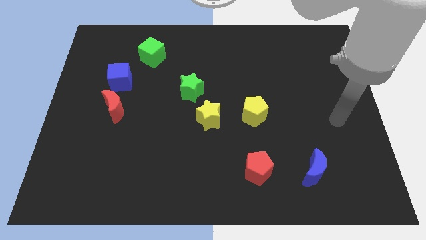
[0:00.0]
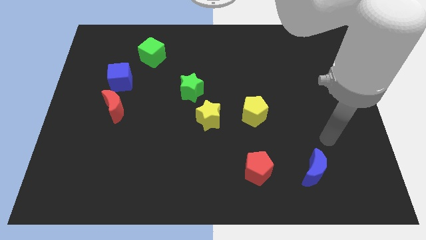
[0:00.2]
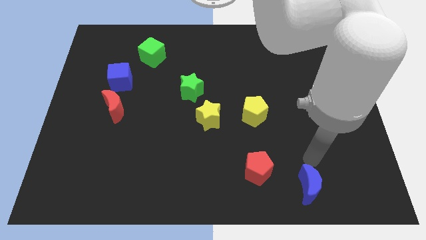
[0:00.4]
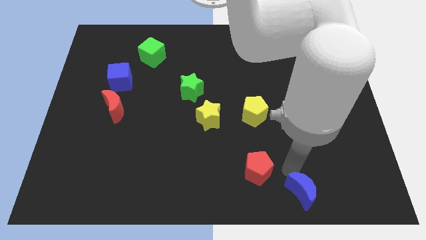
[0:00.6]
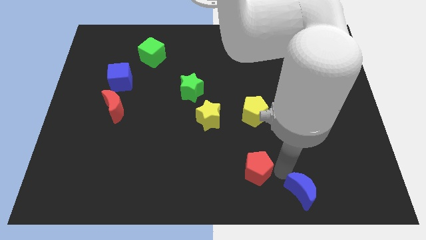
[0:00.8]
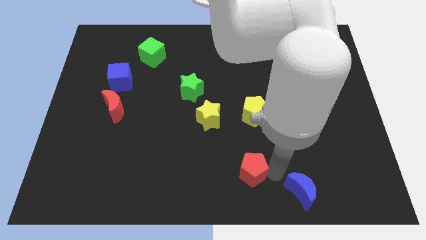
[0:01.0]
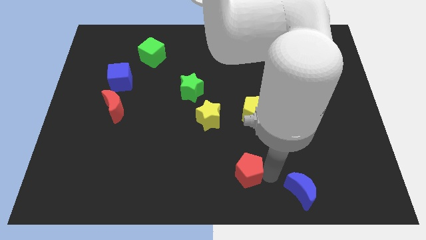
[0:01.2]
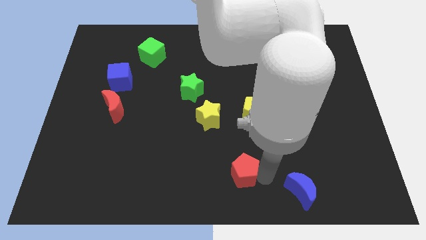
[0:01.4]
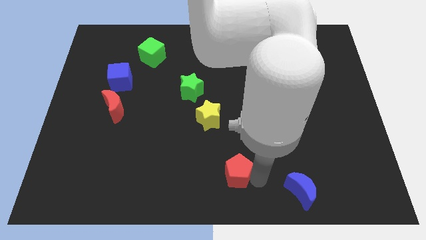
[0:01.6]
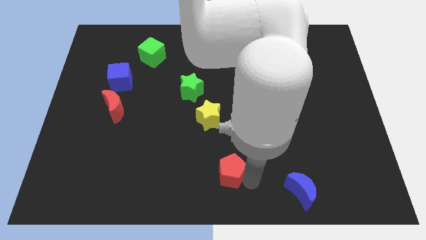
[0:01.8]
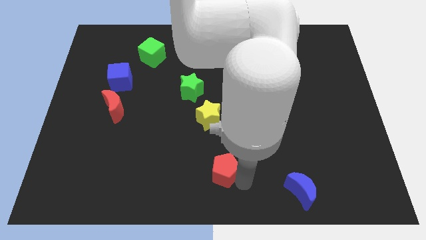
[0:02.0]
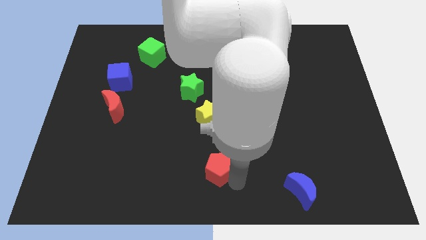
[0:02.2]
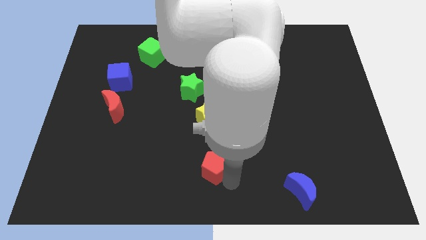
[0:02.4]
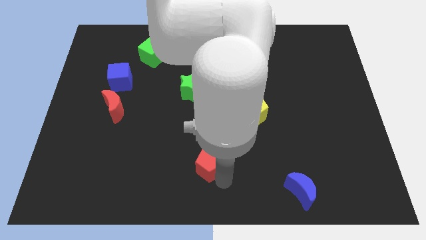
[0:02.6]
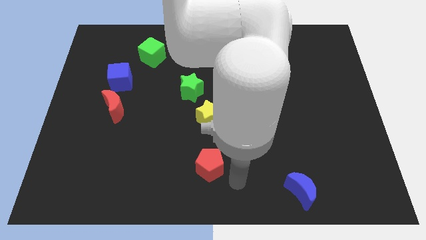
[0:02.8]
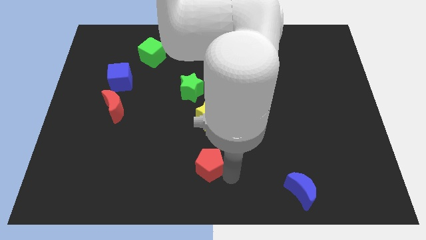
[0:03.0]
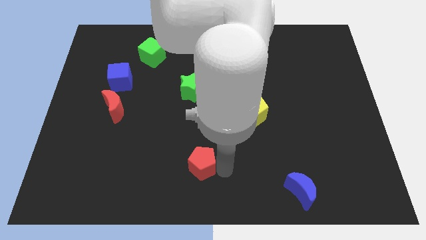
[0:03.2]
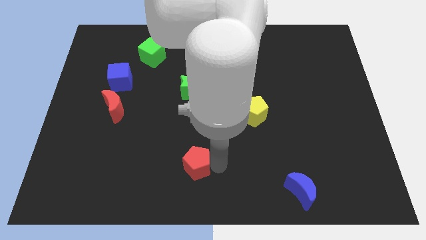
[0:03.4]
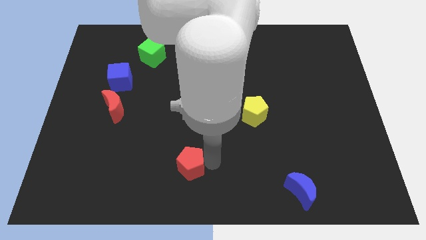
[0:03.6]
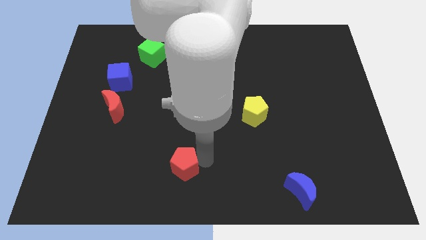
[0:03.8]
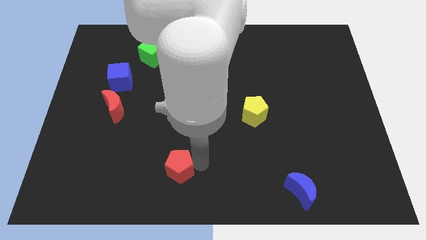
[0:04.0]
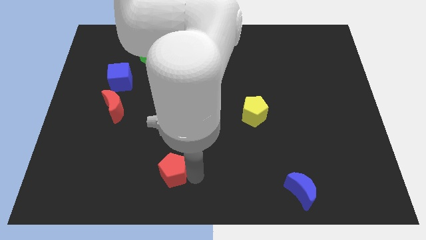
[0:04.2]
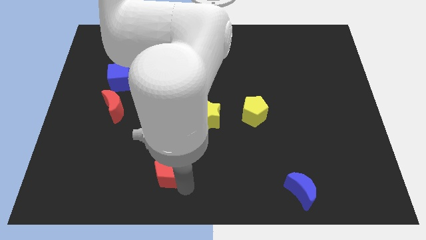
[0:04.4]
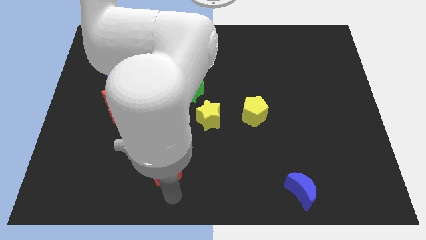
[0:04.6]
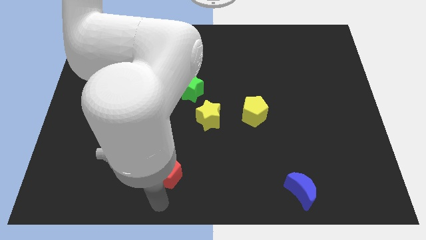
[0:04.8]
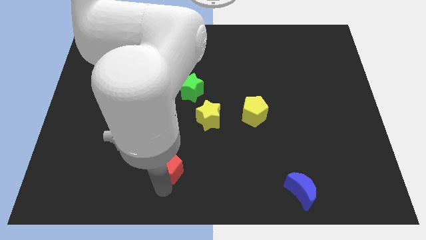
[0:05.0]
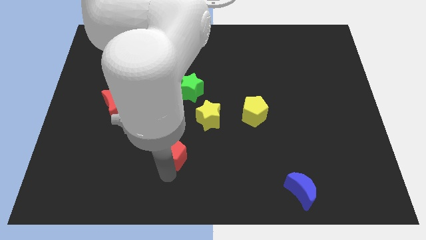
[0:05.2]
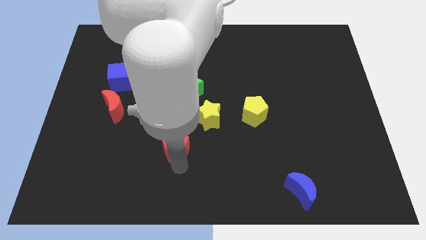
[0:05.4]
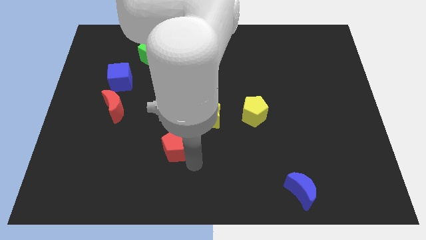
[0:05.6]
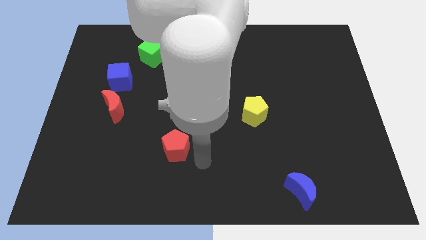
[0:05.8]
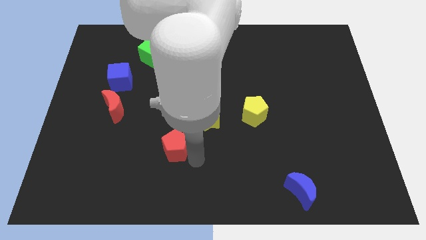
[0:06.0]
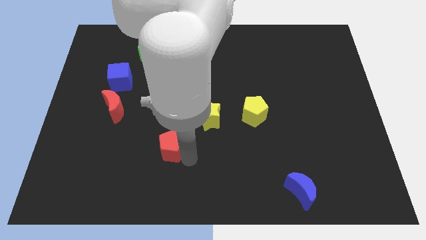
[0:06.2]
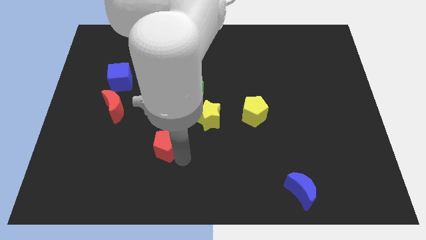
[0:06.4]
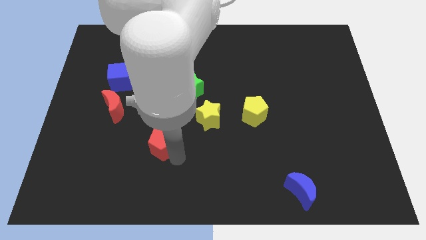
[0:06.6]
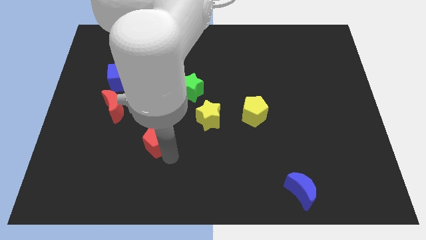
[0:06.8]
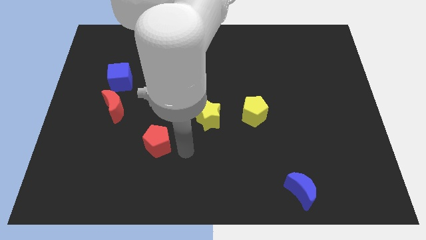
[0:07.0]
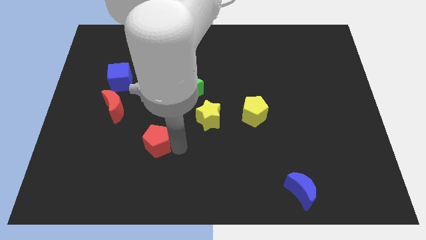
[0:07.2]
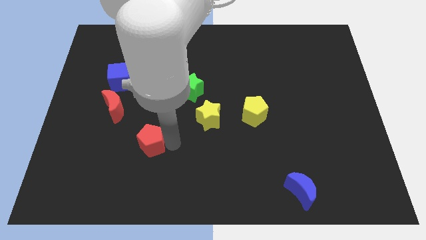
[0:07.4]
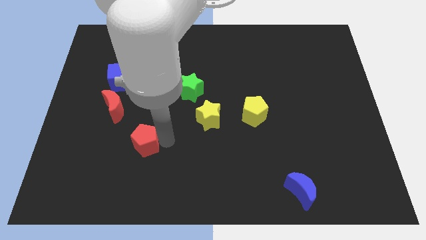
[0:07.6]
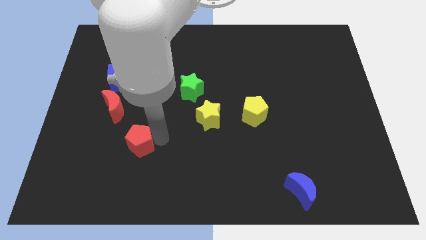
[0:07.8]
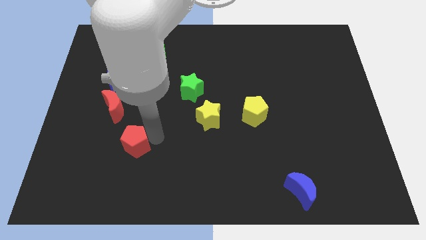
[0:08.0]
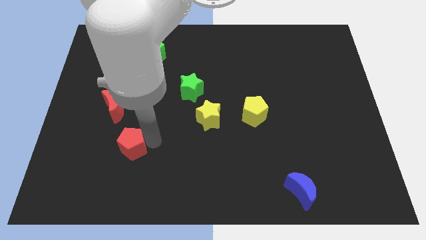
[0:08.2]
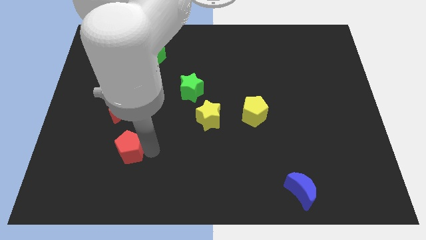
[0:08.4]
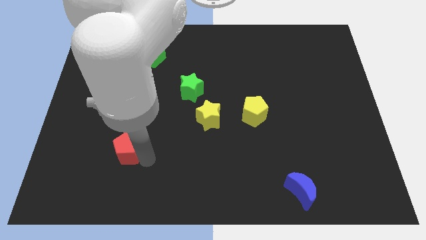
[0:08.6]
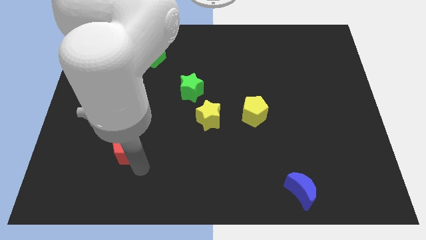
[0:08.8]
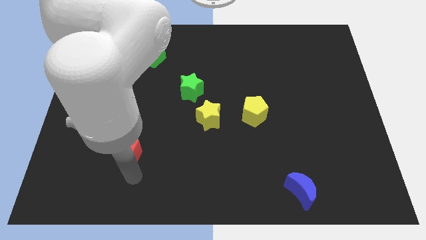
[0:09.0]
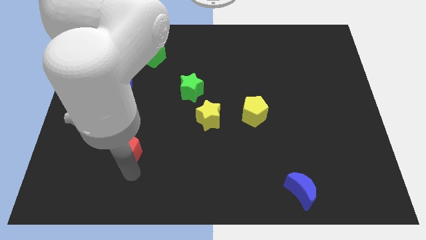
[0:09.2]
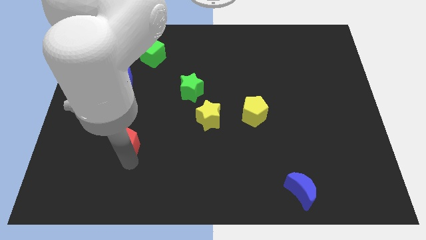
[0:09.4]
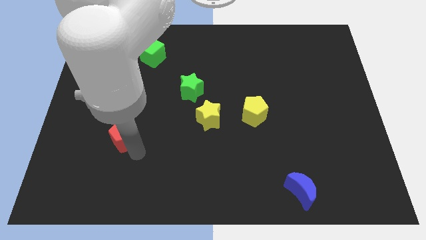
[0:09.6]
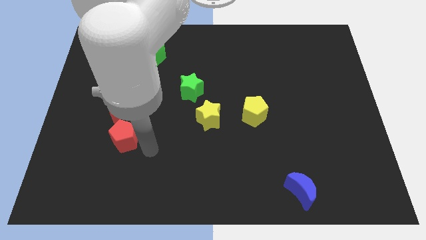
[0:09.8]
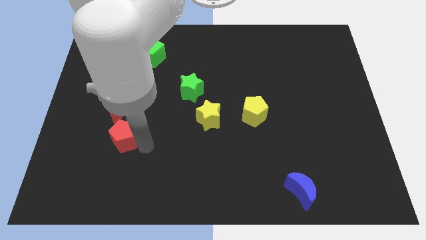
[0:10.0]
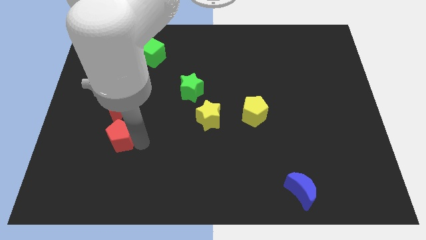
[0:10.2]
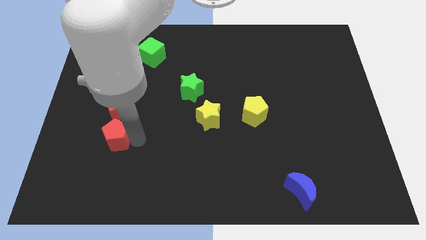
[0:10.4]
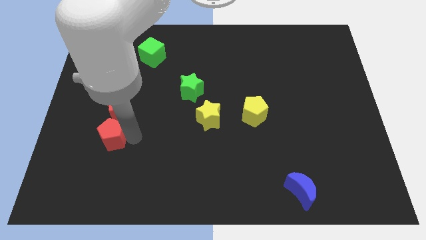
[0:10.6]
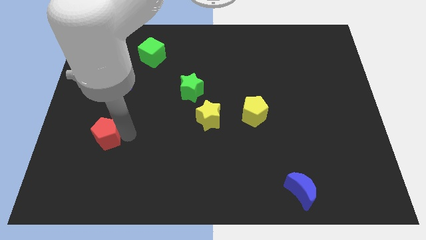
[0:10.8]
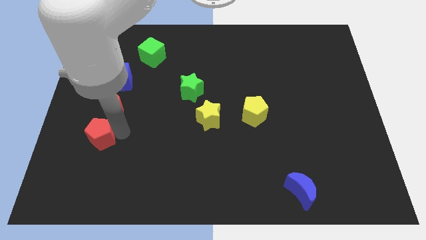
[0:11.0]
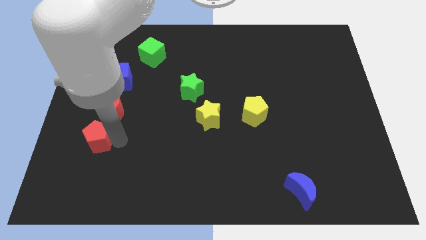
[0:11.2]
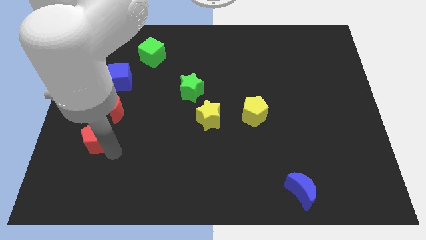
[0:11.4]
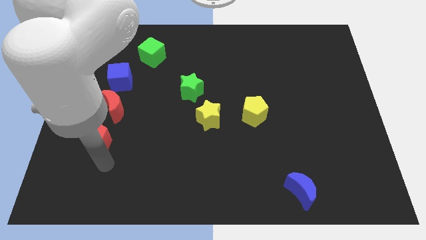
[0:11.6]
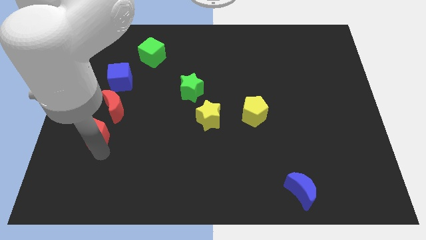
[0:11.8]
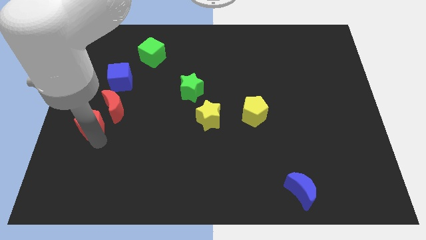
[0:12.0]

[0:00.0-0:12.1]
slide the red pentagon to the left side of the board

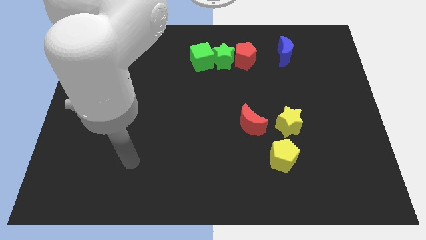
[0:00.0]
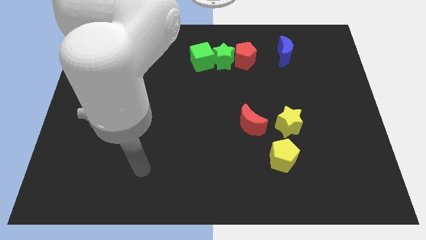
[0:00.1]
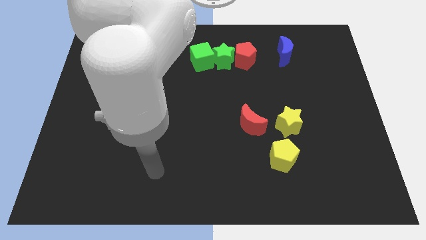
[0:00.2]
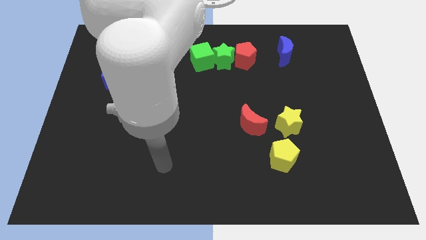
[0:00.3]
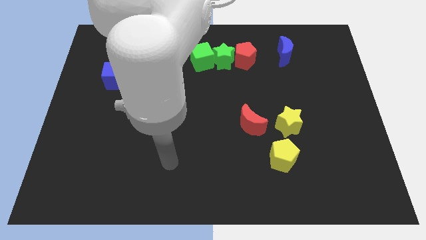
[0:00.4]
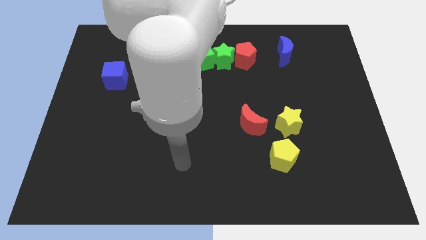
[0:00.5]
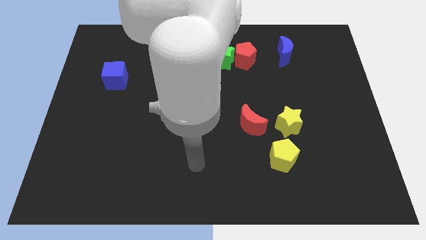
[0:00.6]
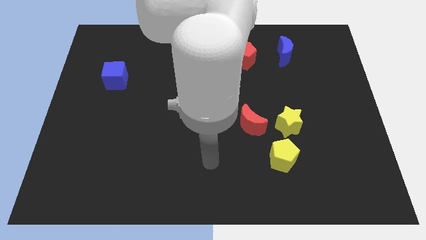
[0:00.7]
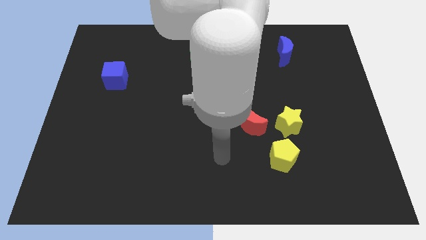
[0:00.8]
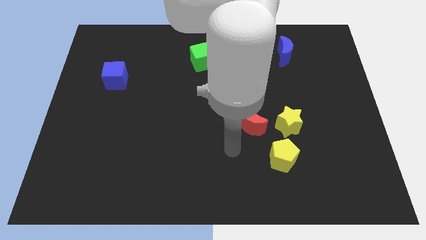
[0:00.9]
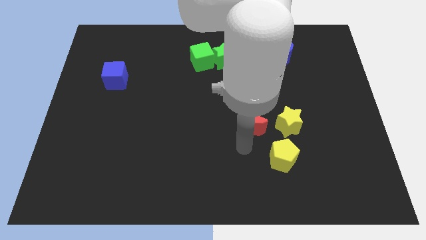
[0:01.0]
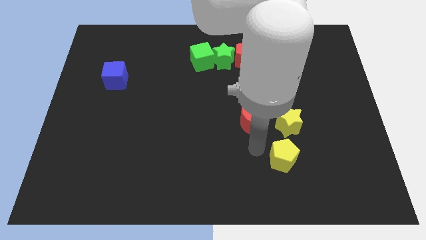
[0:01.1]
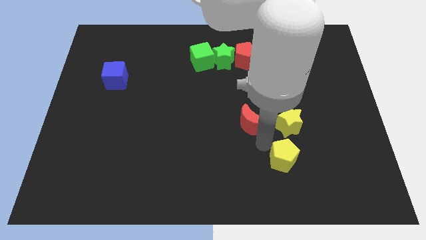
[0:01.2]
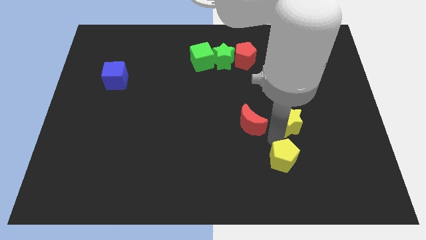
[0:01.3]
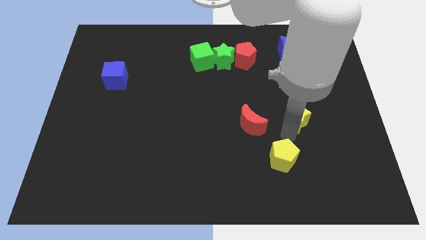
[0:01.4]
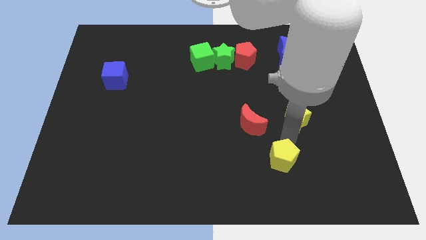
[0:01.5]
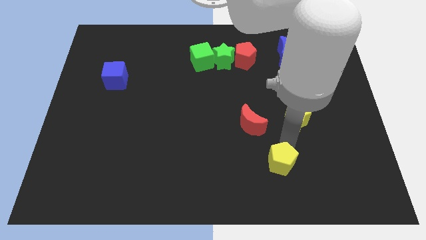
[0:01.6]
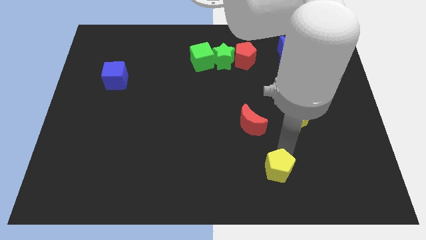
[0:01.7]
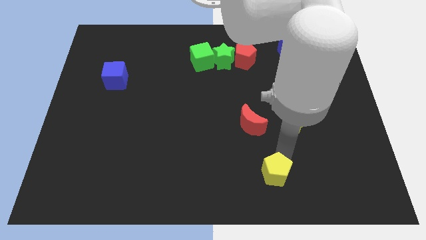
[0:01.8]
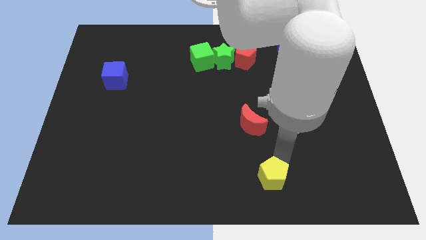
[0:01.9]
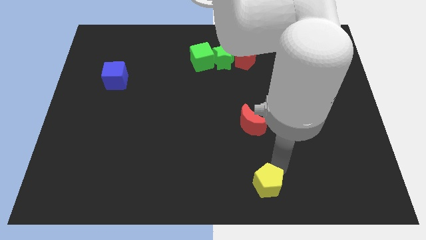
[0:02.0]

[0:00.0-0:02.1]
push the yellow pentagon to the bottom
